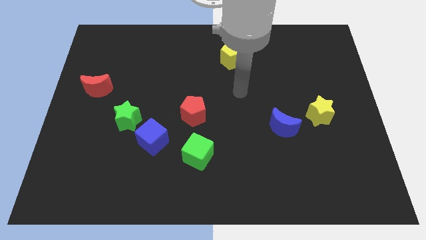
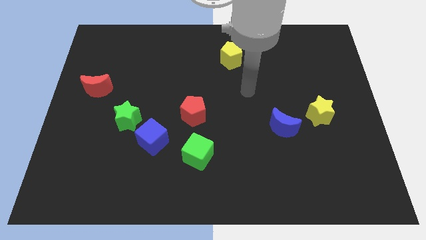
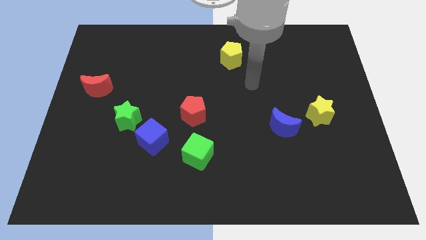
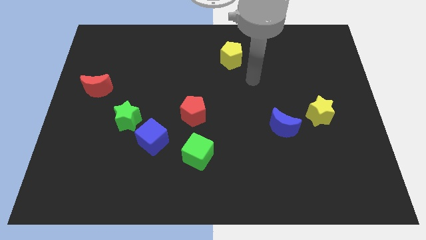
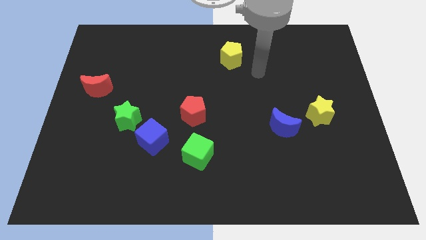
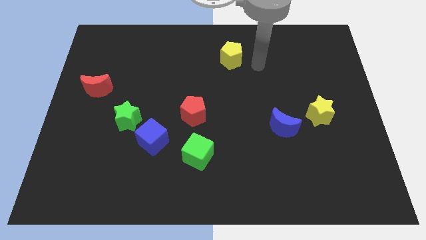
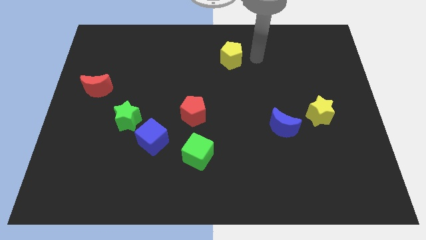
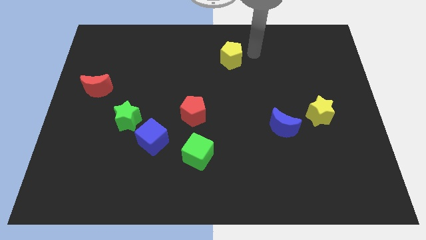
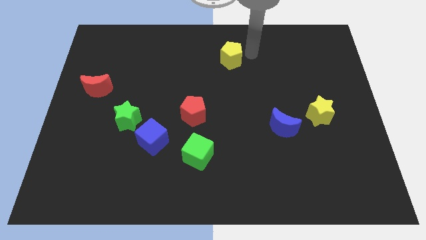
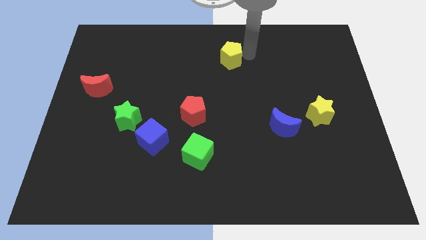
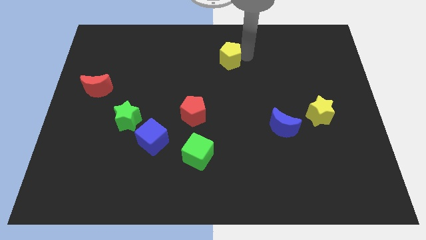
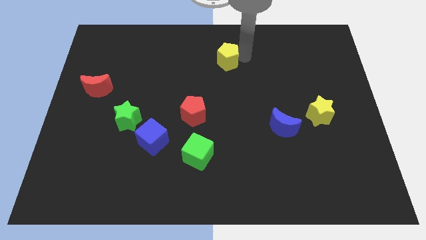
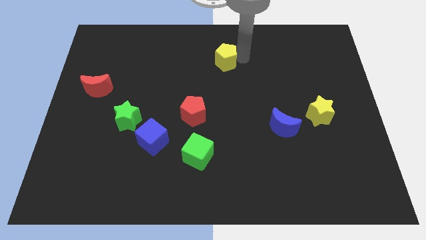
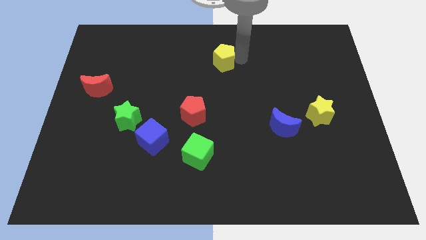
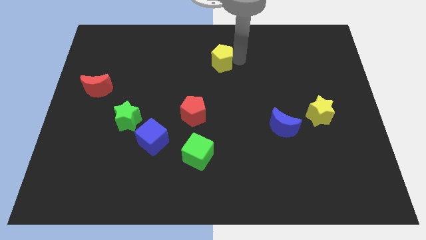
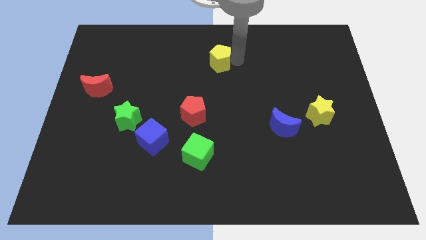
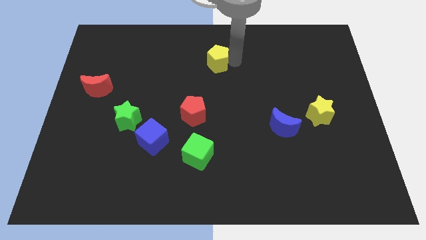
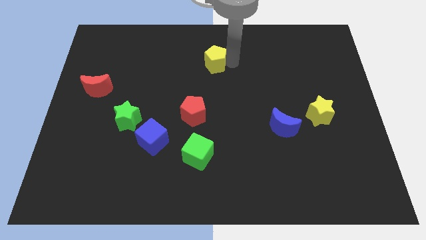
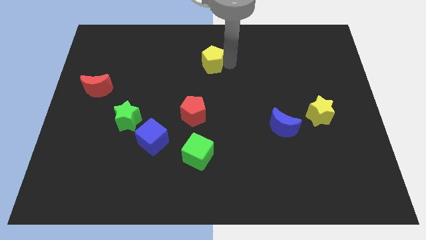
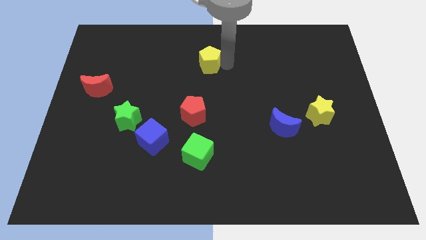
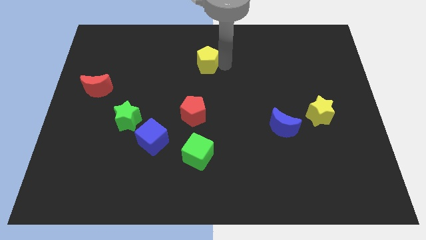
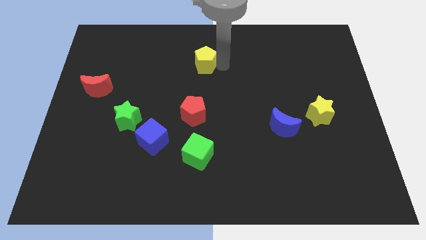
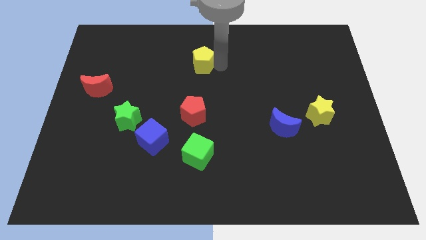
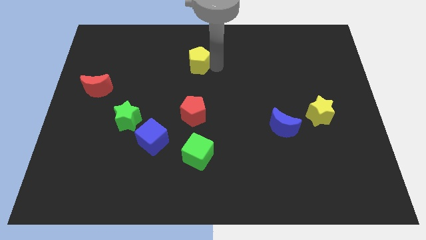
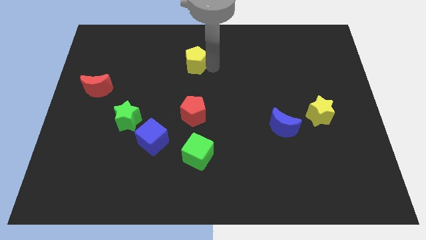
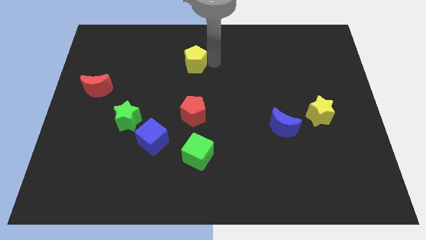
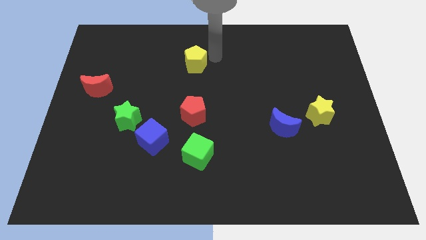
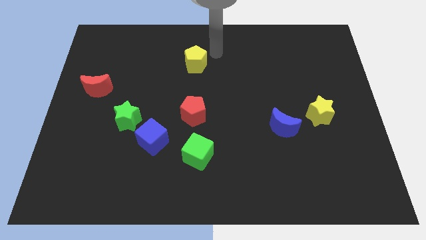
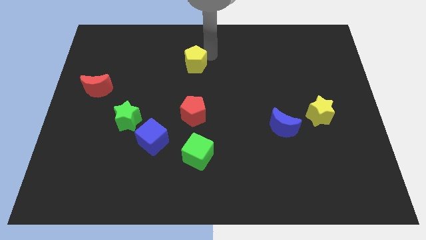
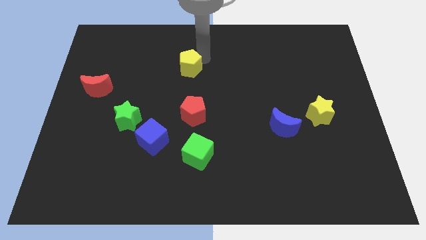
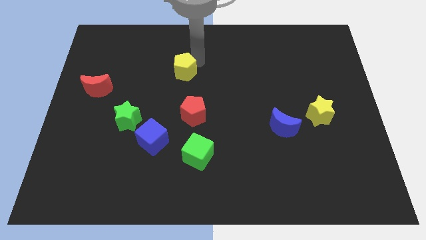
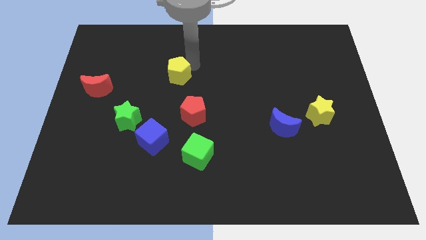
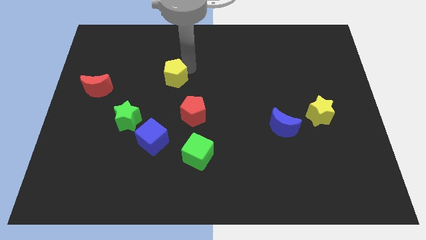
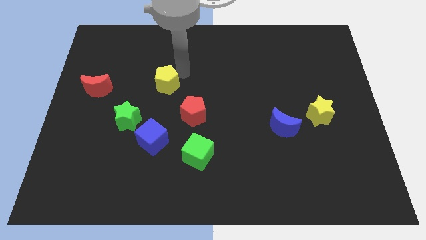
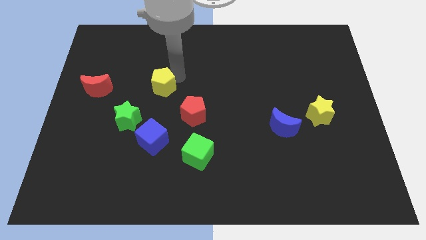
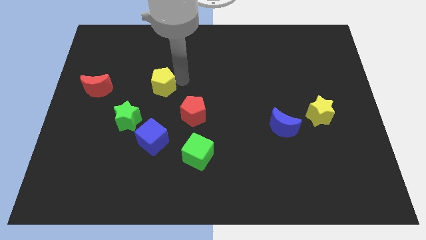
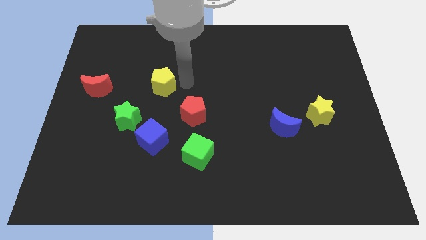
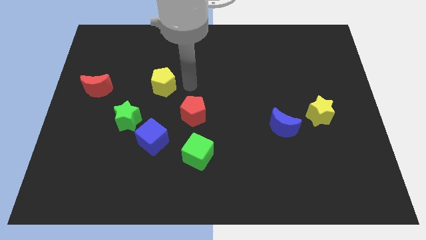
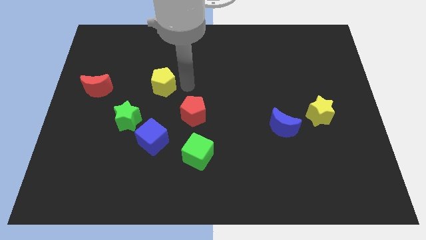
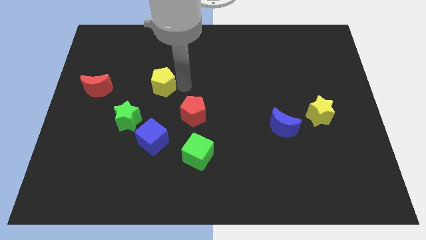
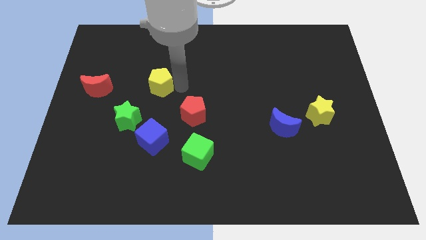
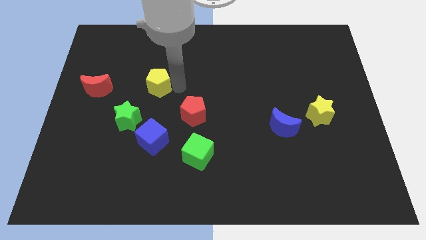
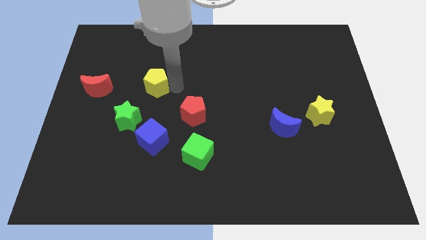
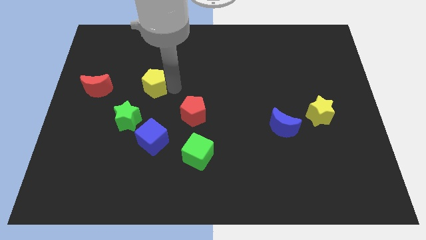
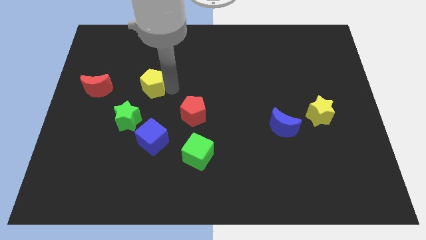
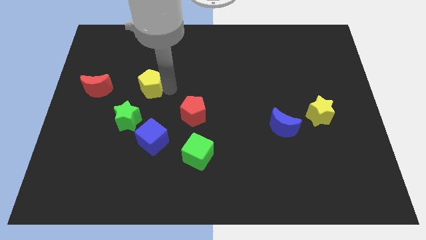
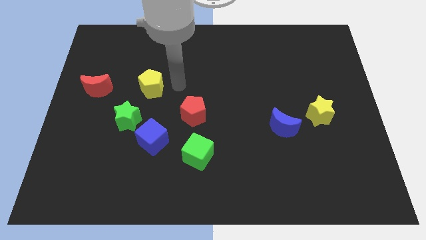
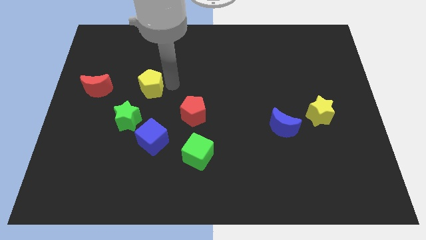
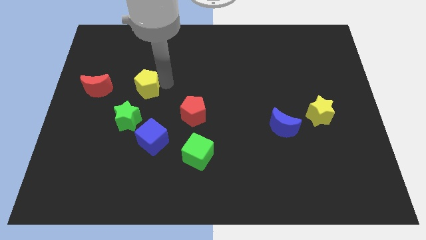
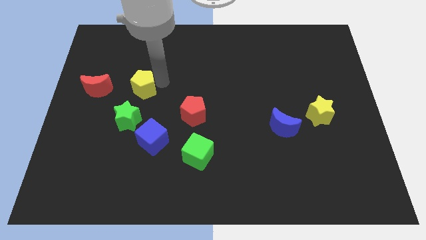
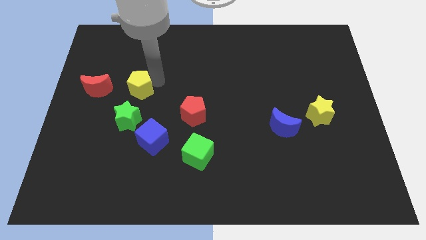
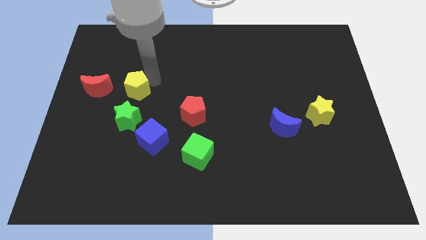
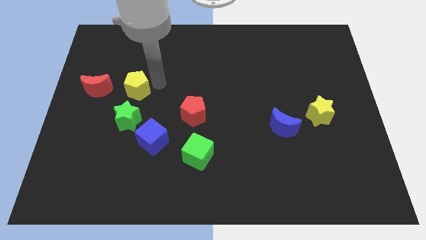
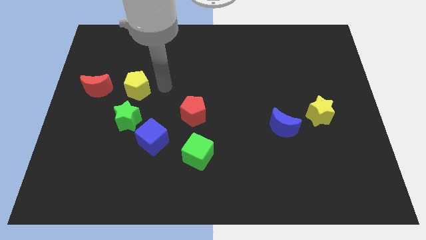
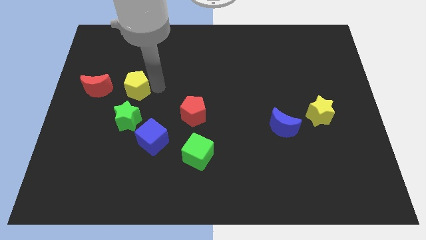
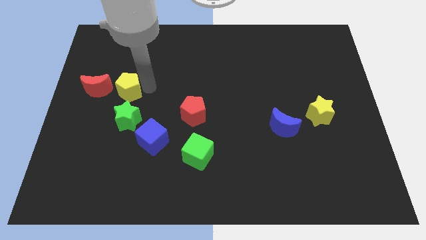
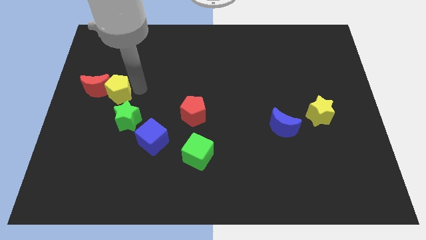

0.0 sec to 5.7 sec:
push the yellow pentagon towards the red moon

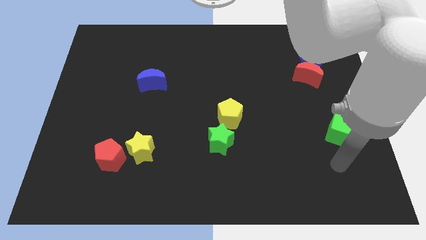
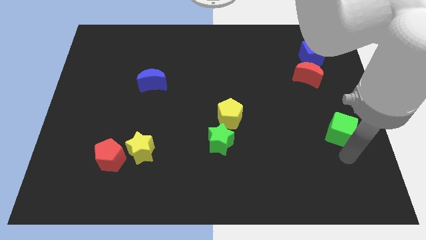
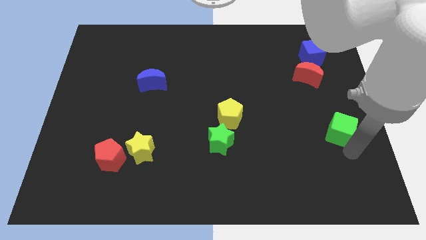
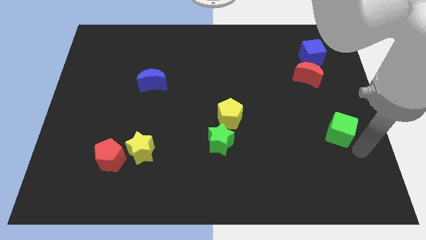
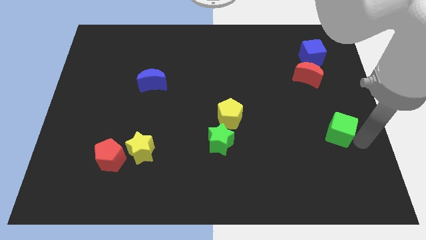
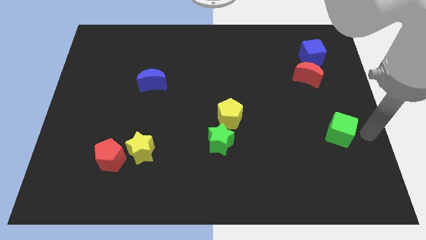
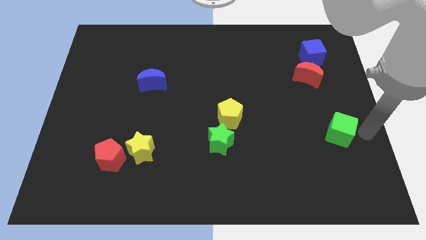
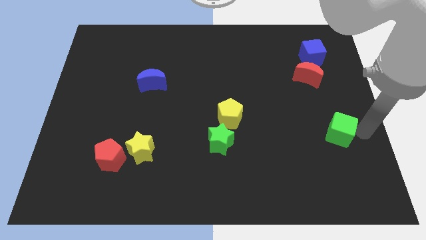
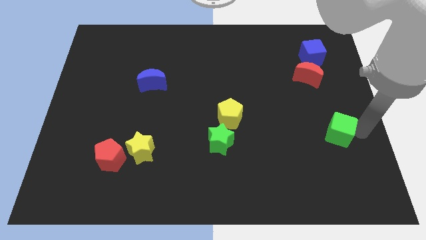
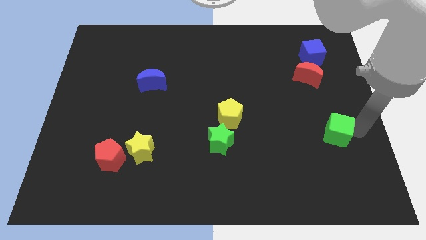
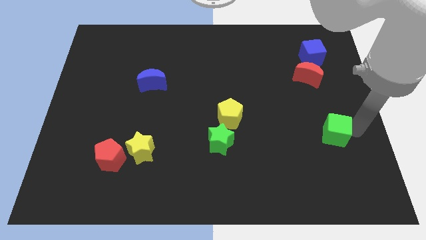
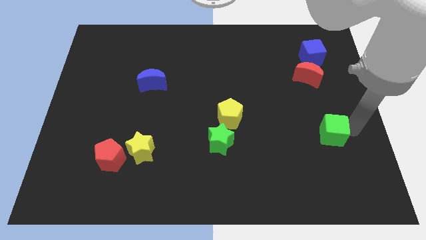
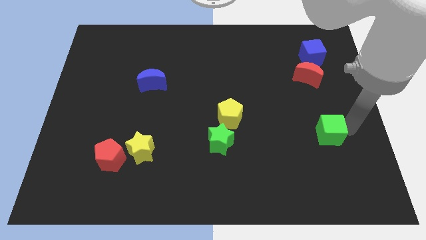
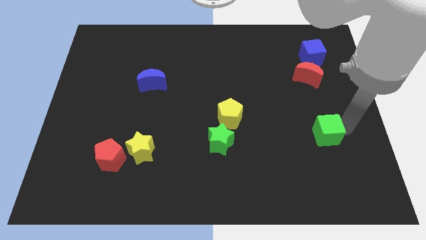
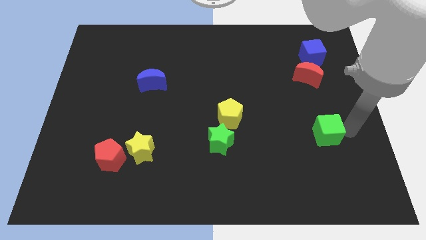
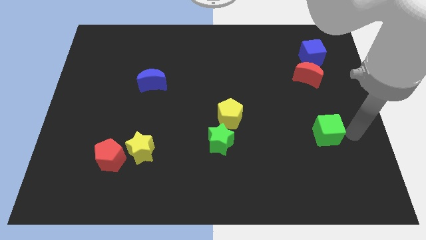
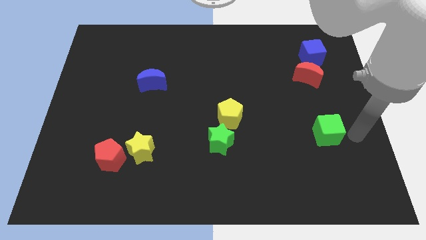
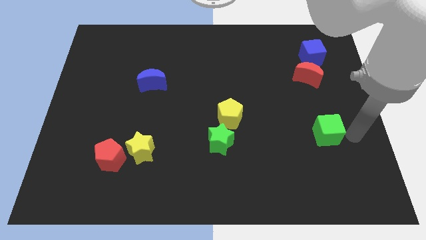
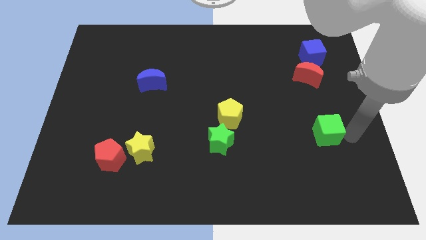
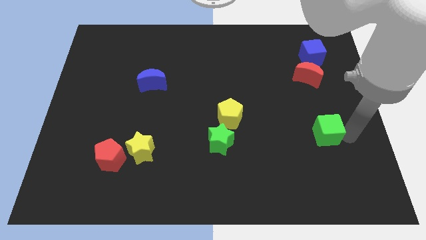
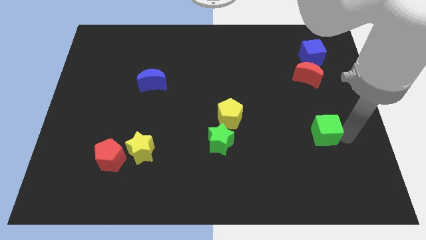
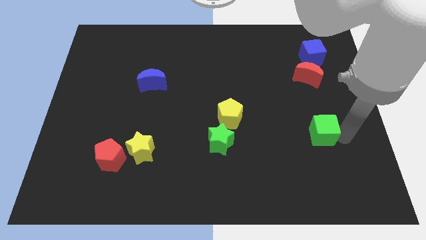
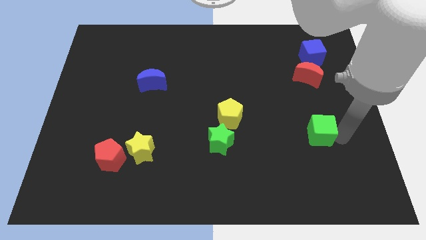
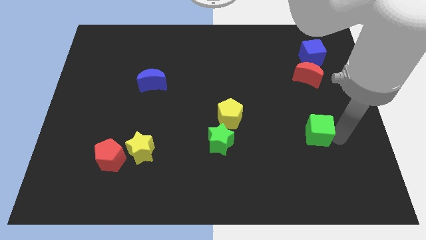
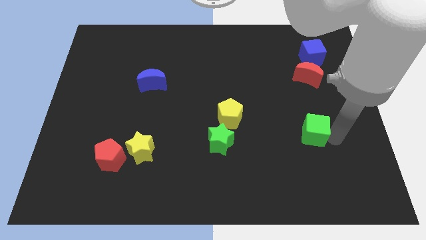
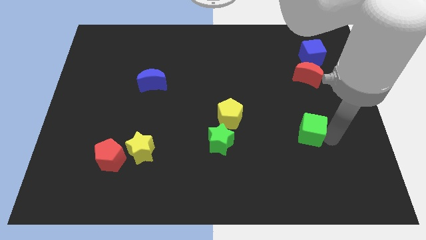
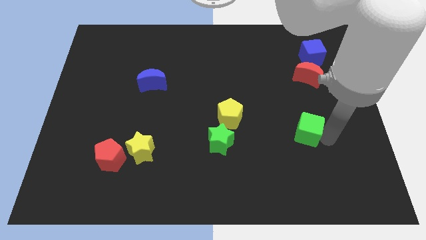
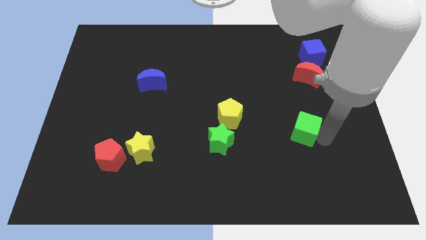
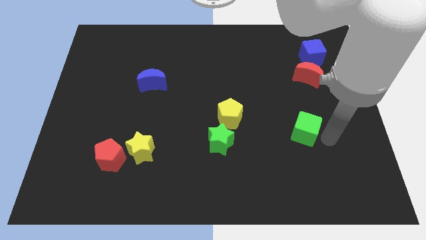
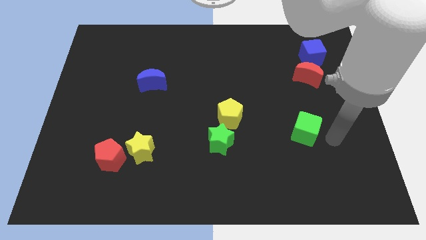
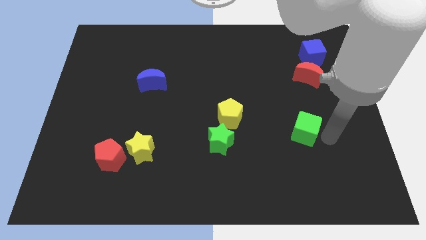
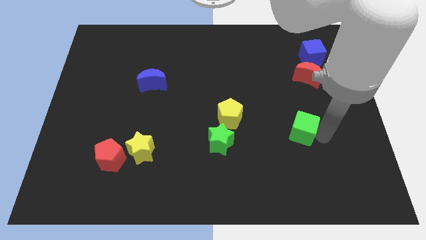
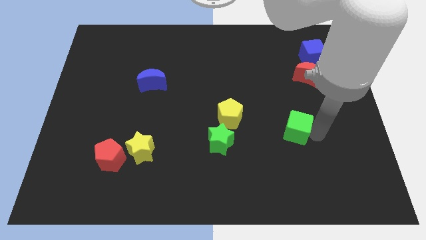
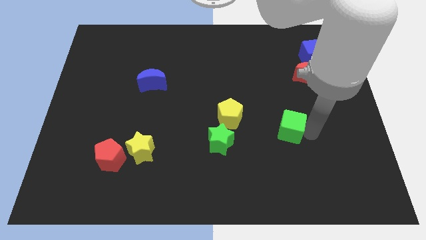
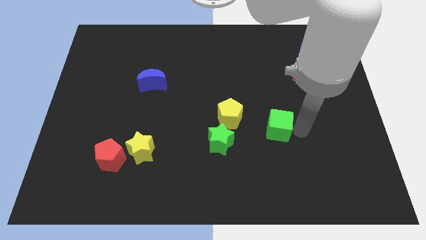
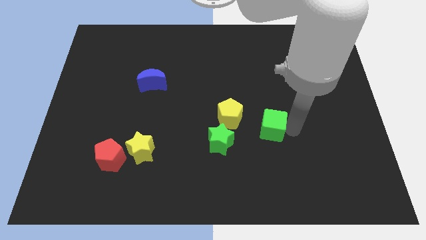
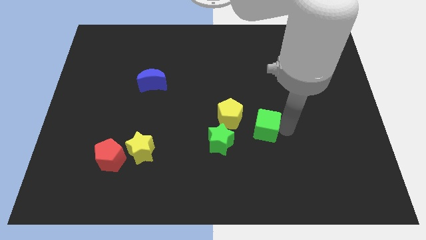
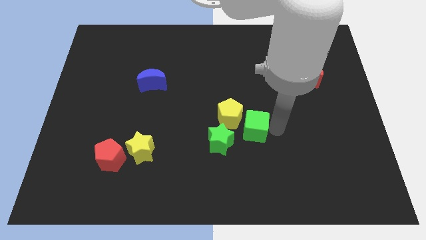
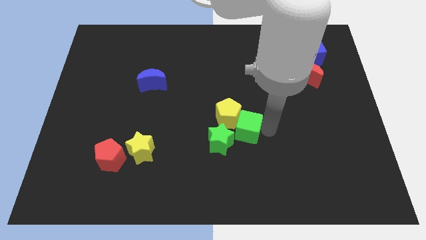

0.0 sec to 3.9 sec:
move the green cube towards the yellow pentagon
